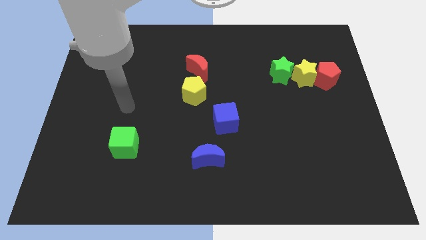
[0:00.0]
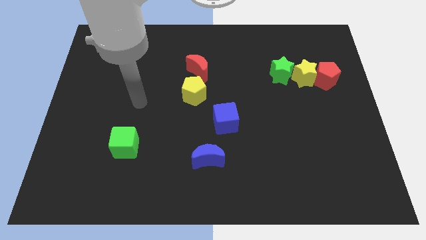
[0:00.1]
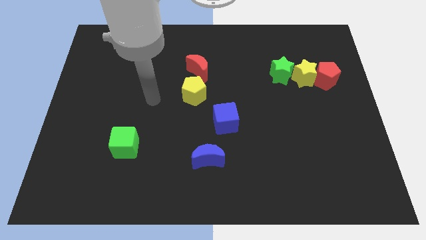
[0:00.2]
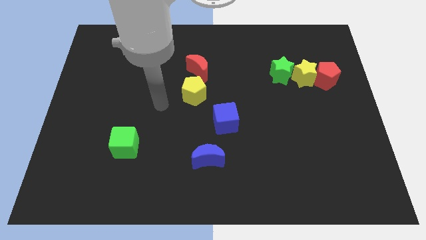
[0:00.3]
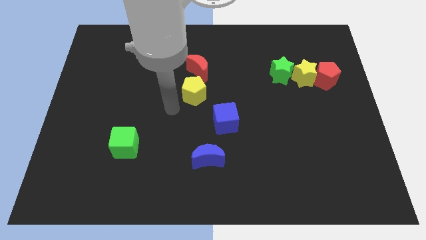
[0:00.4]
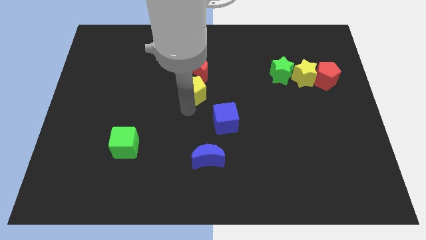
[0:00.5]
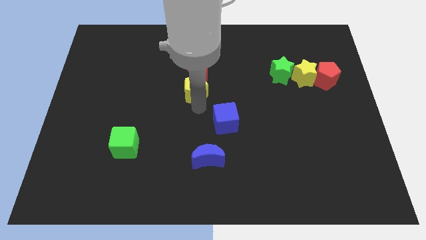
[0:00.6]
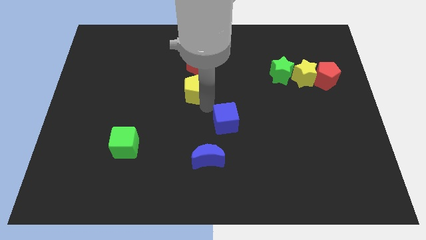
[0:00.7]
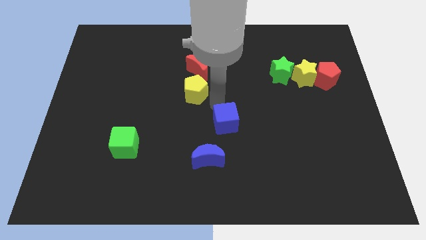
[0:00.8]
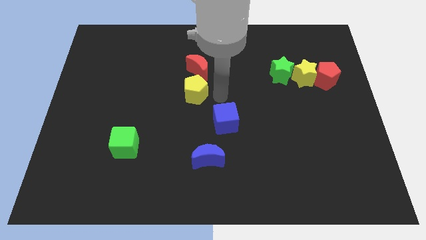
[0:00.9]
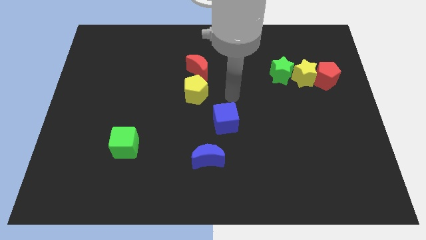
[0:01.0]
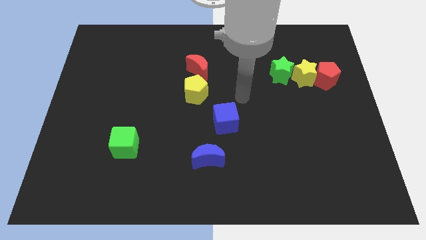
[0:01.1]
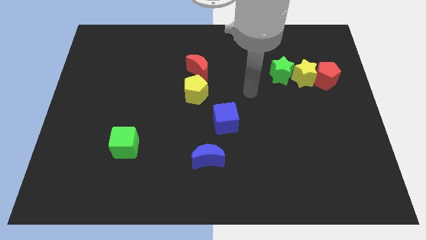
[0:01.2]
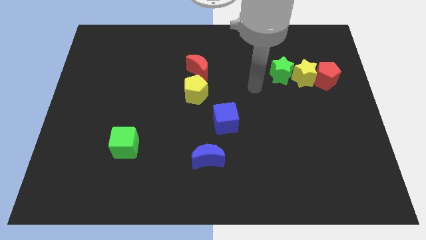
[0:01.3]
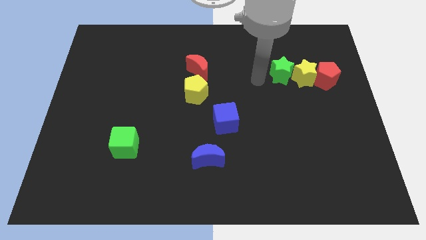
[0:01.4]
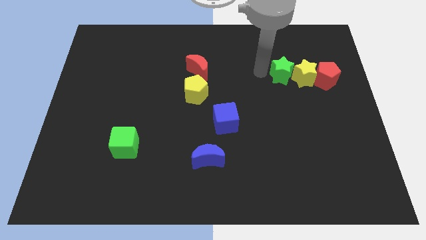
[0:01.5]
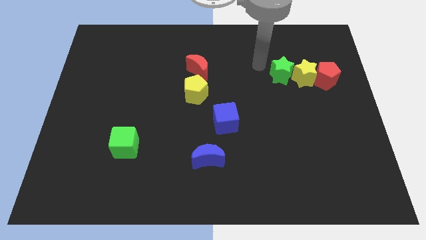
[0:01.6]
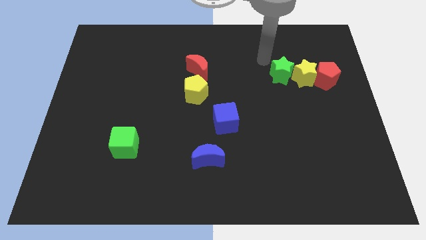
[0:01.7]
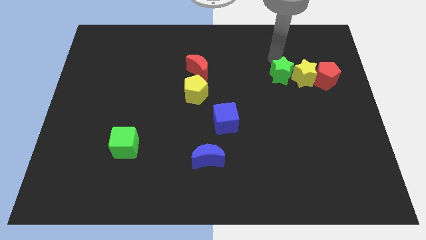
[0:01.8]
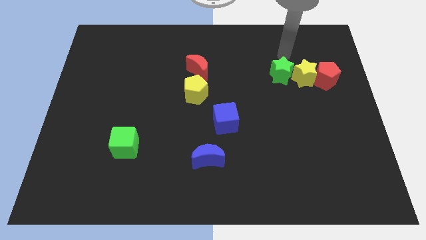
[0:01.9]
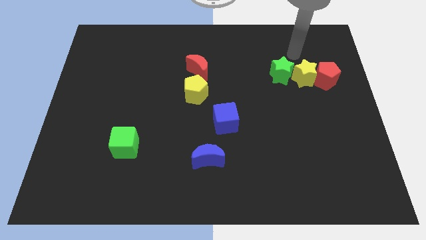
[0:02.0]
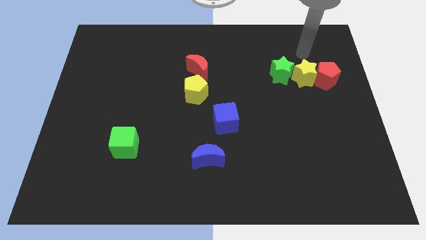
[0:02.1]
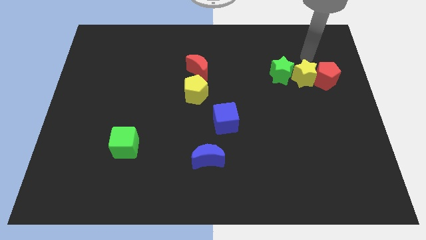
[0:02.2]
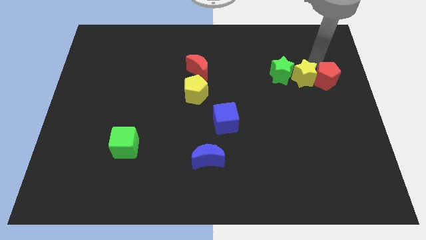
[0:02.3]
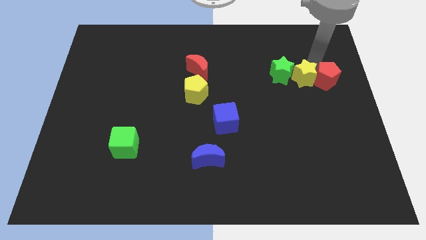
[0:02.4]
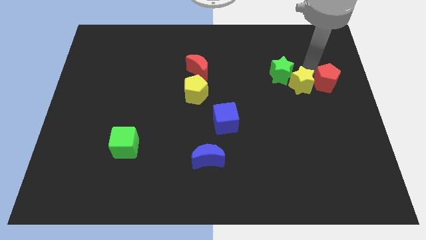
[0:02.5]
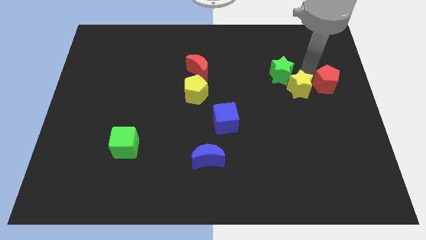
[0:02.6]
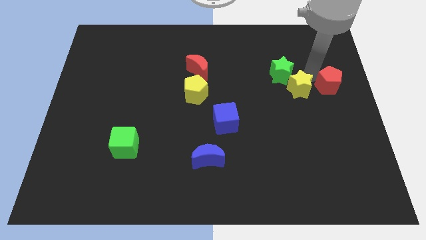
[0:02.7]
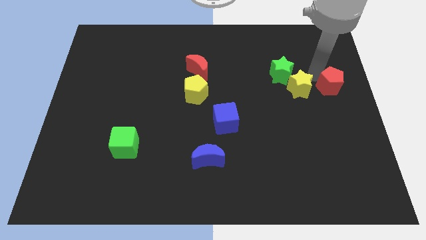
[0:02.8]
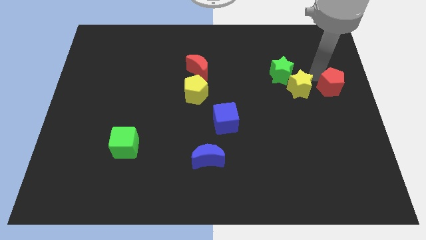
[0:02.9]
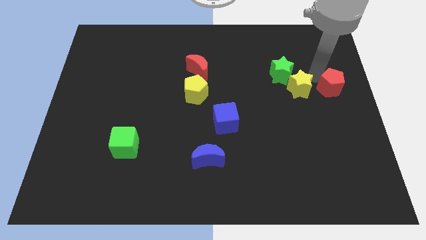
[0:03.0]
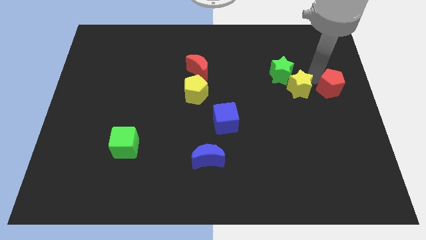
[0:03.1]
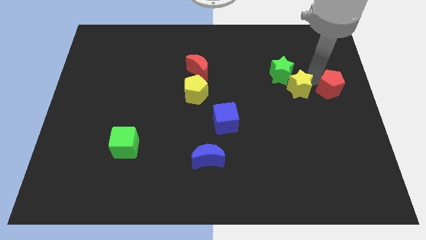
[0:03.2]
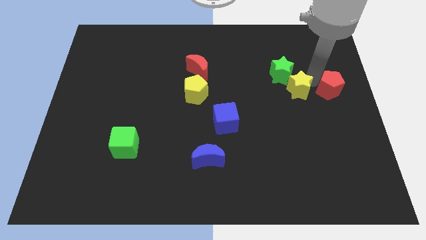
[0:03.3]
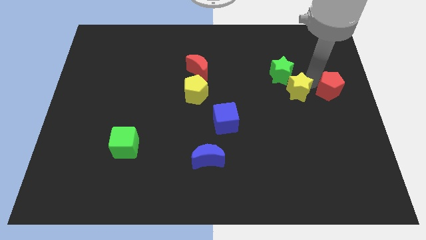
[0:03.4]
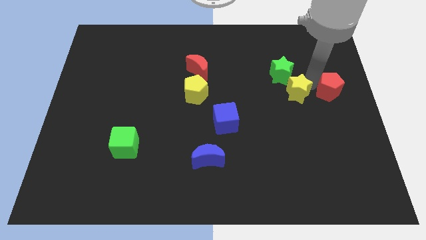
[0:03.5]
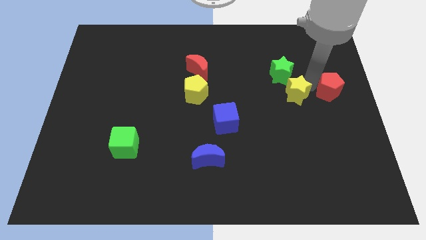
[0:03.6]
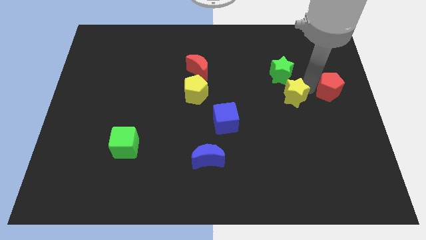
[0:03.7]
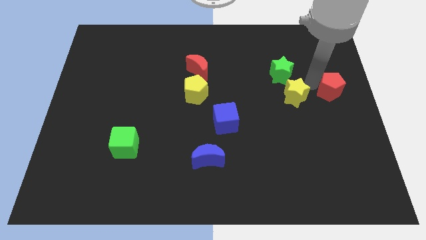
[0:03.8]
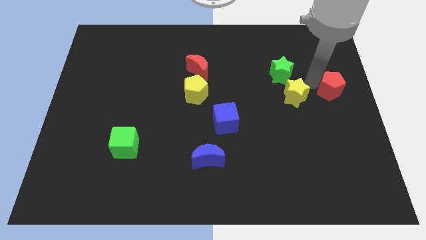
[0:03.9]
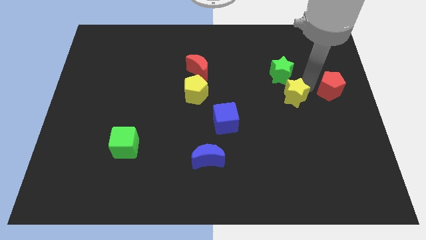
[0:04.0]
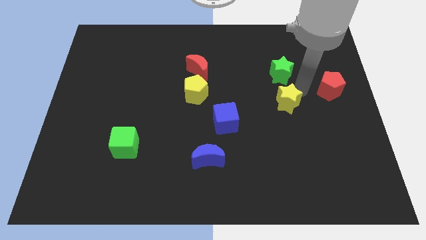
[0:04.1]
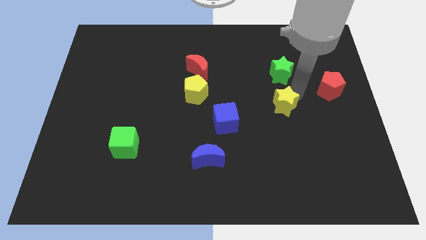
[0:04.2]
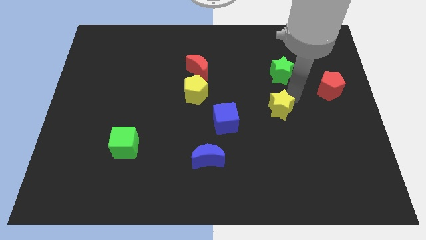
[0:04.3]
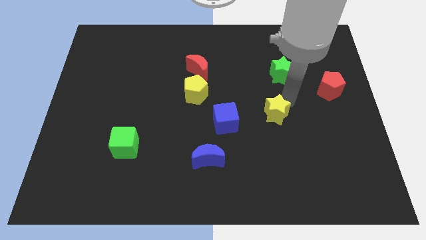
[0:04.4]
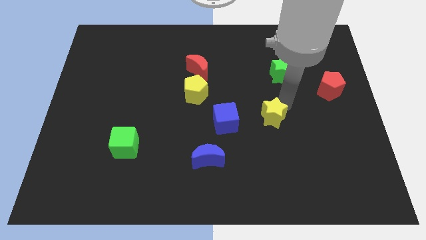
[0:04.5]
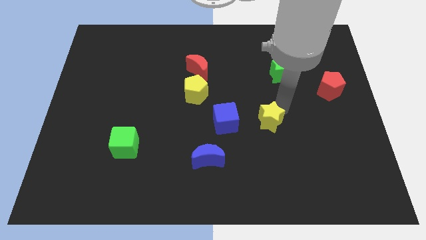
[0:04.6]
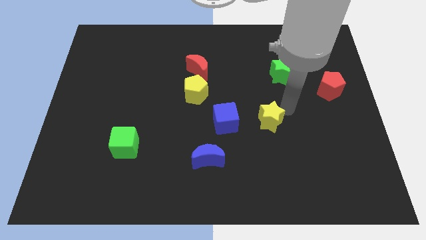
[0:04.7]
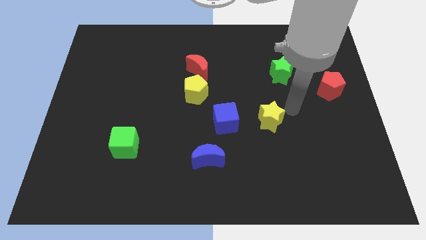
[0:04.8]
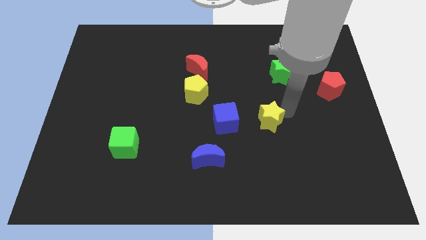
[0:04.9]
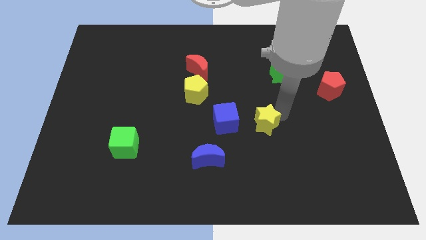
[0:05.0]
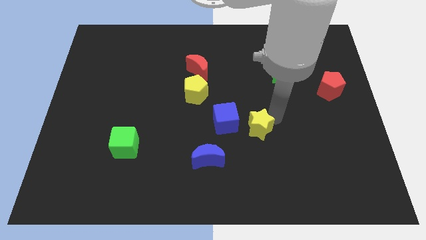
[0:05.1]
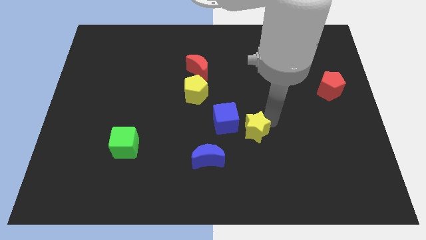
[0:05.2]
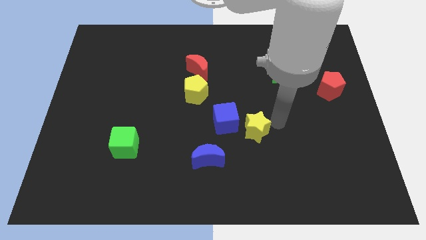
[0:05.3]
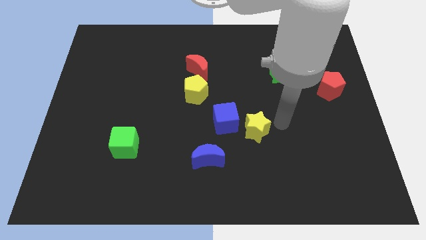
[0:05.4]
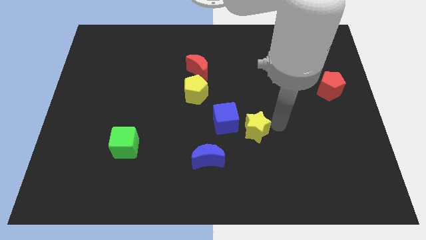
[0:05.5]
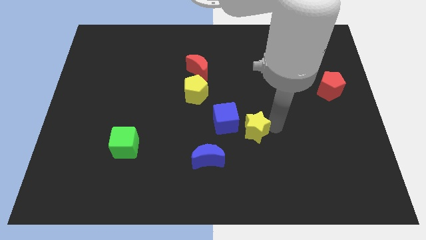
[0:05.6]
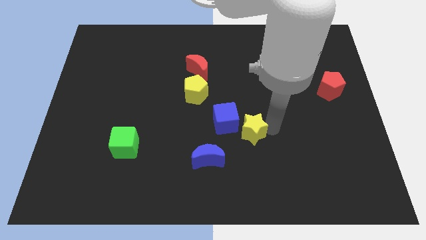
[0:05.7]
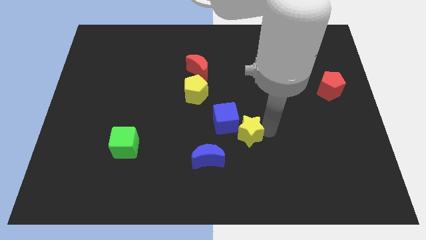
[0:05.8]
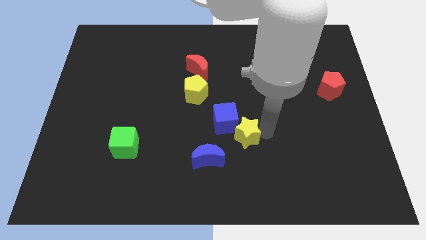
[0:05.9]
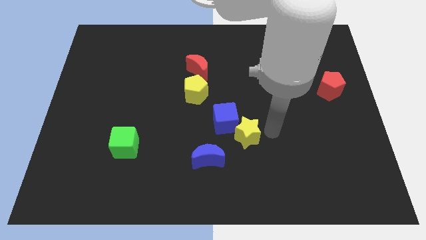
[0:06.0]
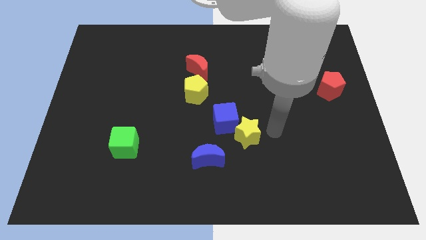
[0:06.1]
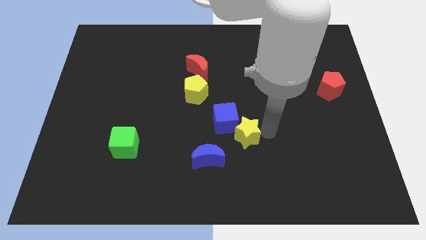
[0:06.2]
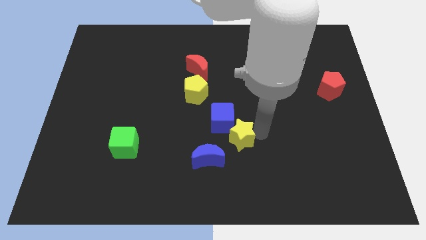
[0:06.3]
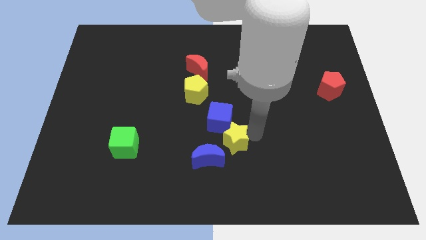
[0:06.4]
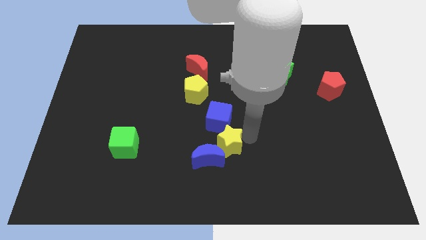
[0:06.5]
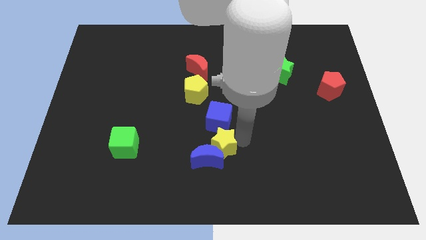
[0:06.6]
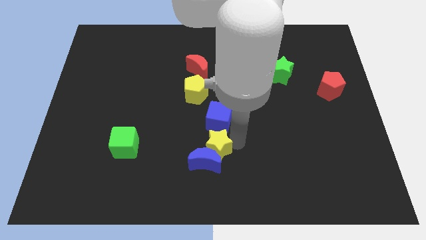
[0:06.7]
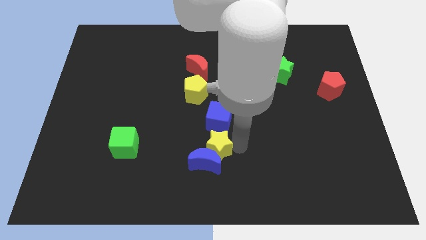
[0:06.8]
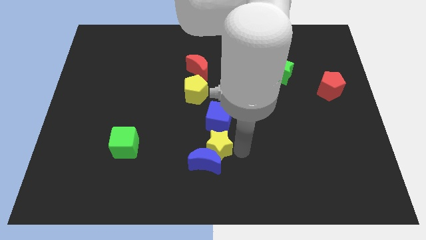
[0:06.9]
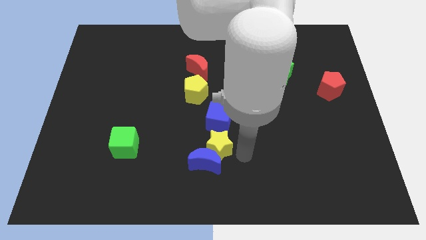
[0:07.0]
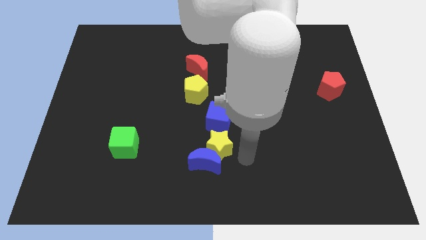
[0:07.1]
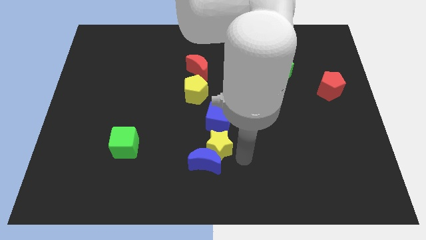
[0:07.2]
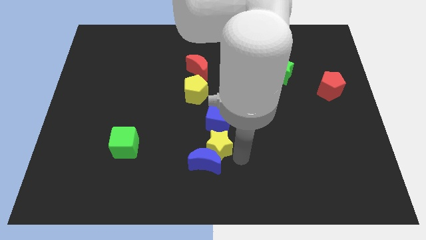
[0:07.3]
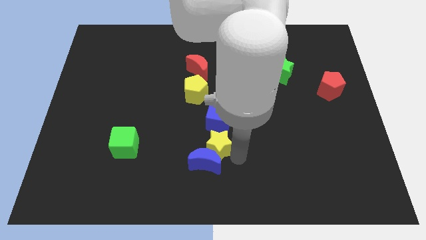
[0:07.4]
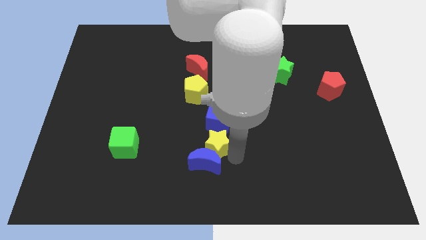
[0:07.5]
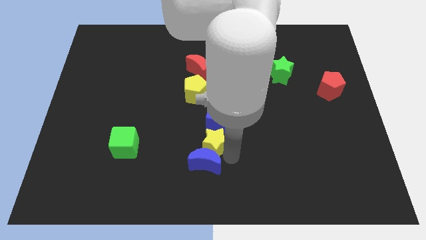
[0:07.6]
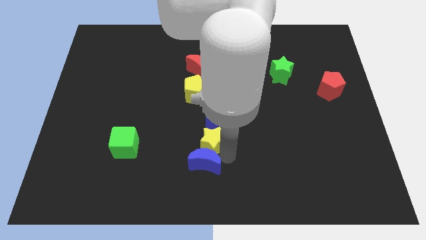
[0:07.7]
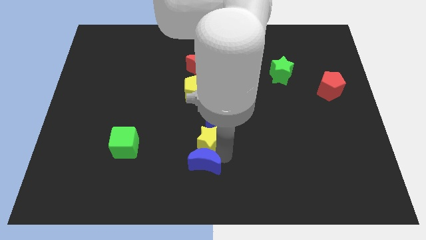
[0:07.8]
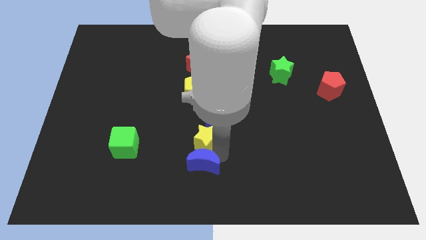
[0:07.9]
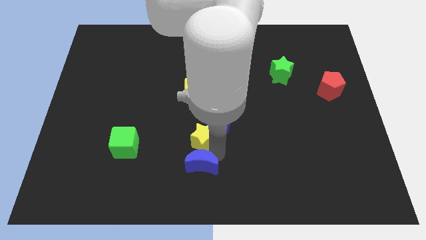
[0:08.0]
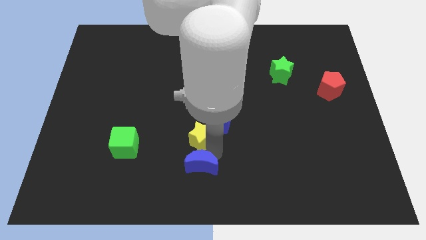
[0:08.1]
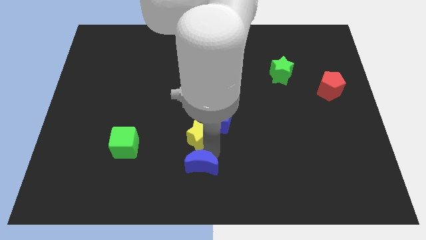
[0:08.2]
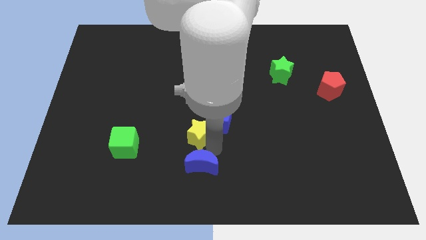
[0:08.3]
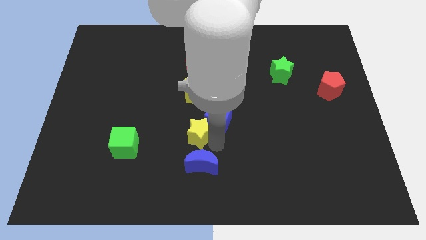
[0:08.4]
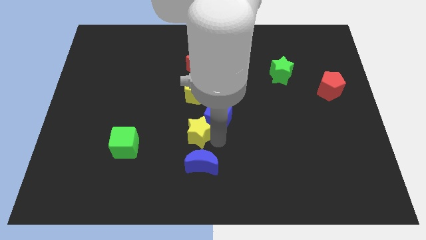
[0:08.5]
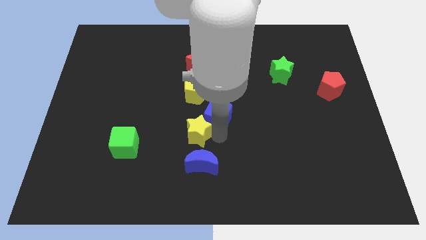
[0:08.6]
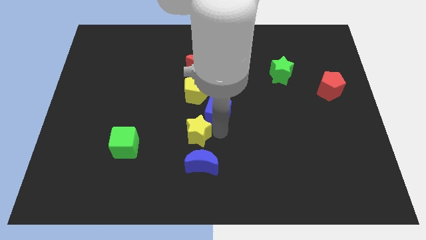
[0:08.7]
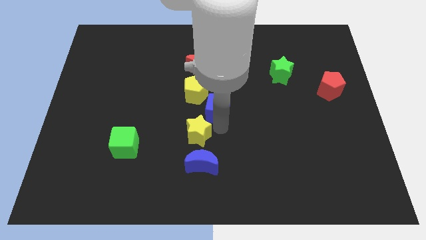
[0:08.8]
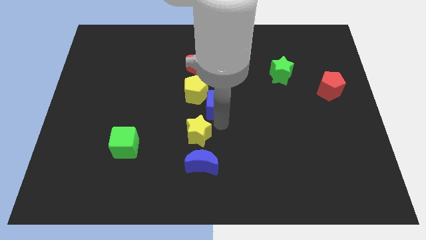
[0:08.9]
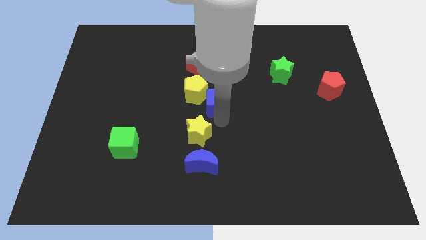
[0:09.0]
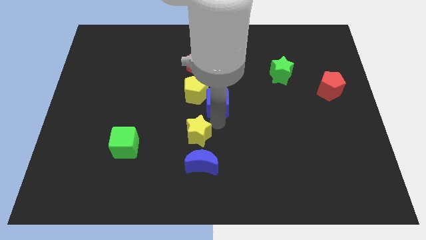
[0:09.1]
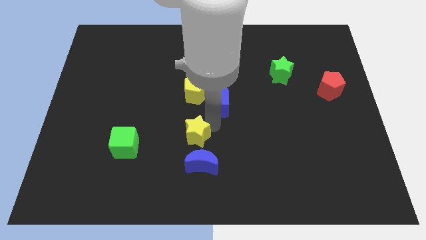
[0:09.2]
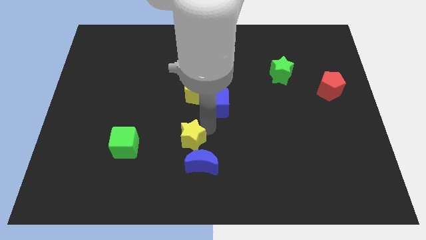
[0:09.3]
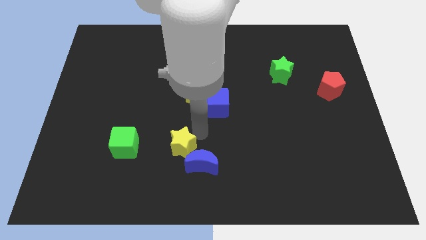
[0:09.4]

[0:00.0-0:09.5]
slide the yellow star to the left of the blue moon
